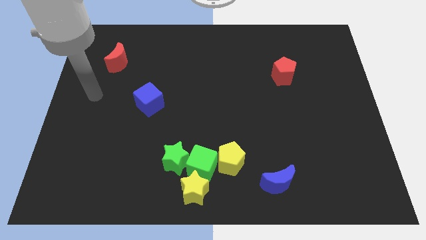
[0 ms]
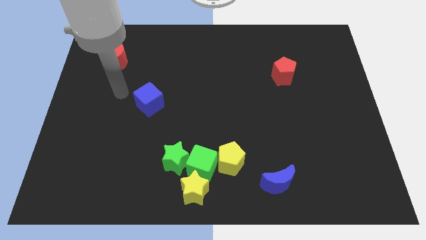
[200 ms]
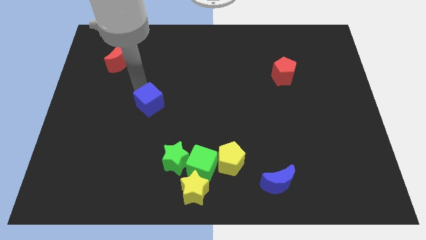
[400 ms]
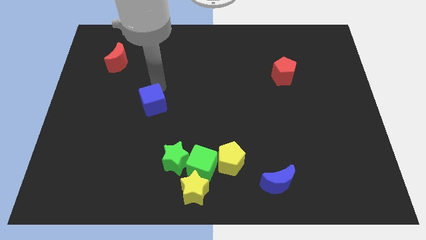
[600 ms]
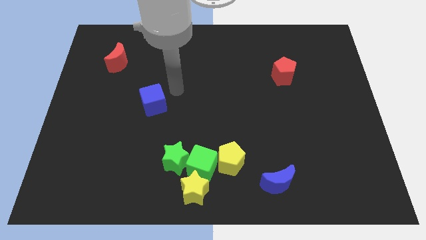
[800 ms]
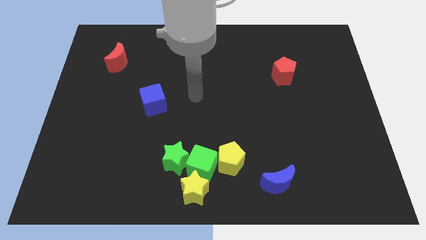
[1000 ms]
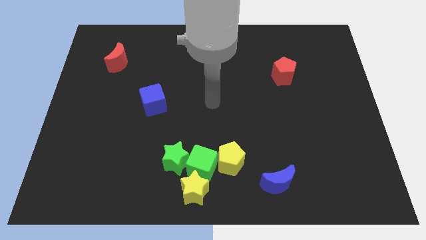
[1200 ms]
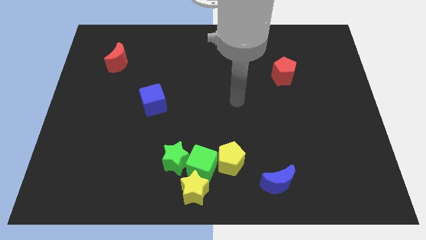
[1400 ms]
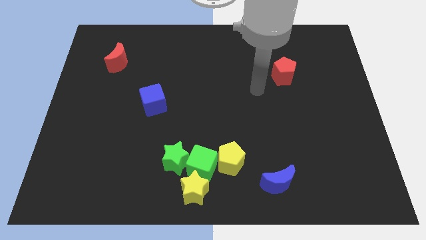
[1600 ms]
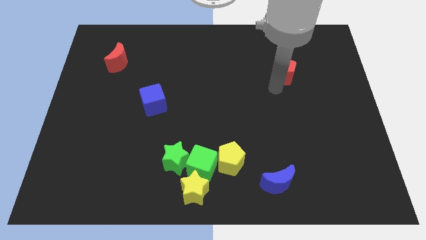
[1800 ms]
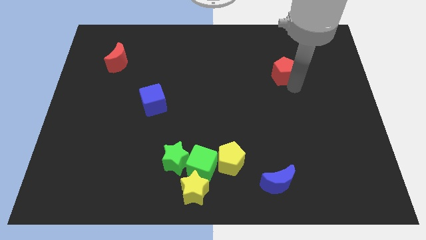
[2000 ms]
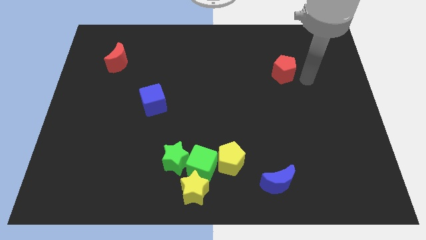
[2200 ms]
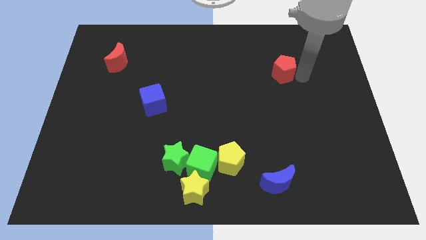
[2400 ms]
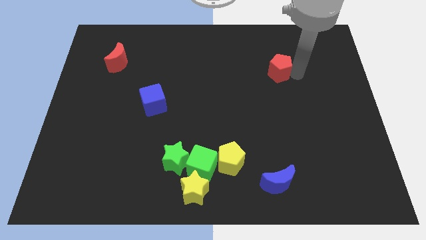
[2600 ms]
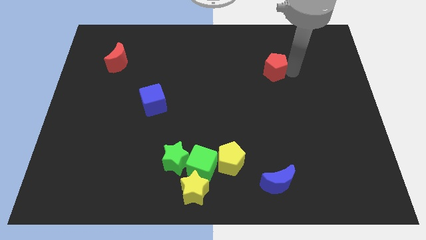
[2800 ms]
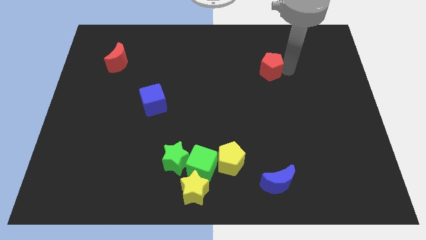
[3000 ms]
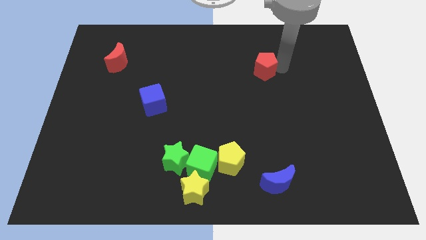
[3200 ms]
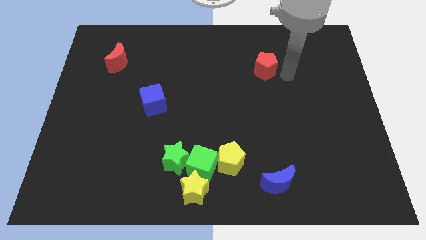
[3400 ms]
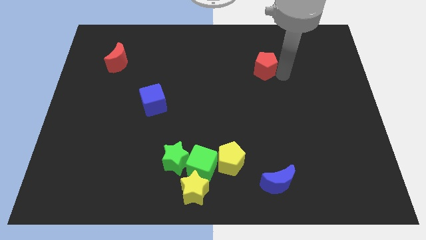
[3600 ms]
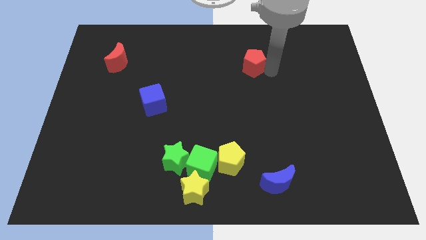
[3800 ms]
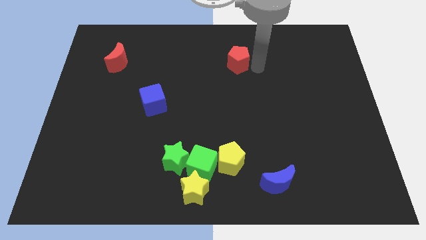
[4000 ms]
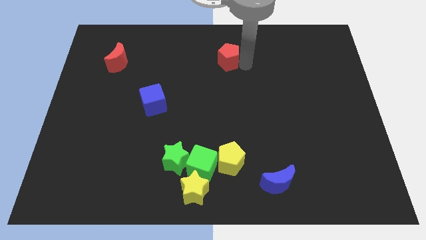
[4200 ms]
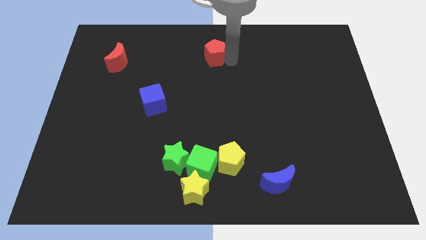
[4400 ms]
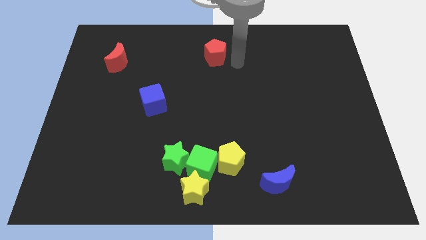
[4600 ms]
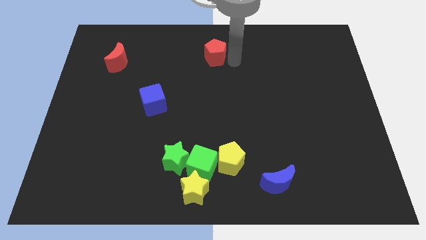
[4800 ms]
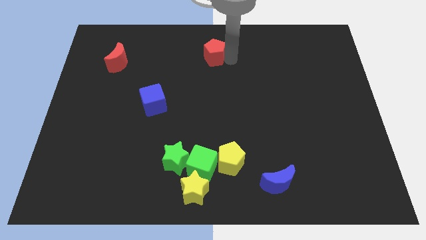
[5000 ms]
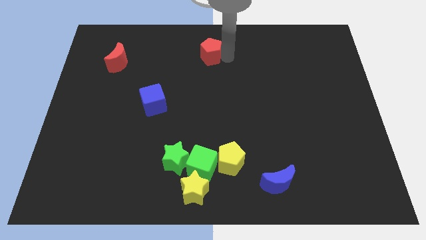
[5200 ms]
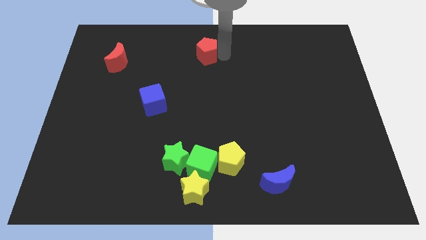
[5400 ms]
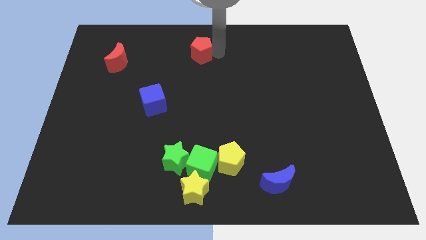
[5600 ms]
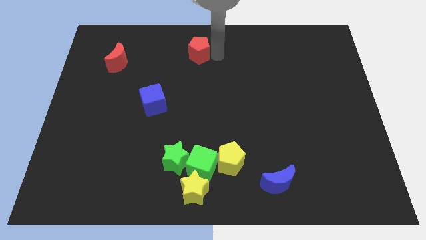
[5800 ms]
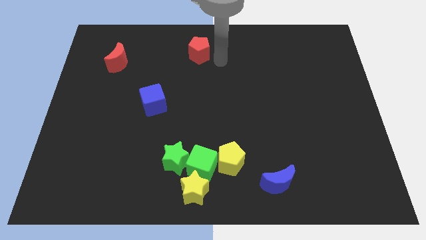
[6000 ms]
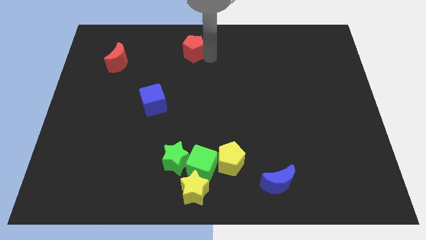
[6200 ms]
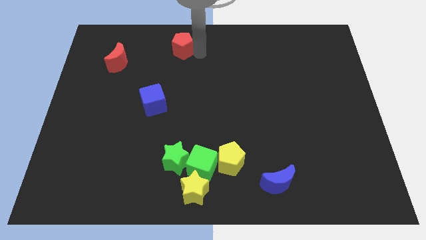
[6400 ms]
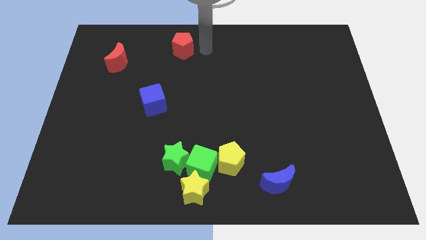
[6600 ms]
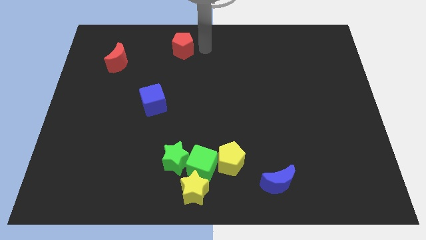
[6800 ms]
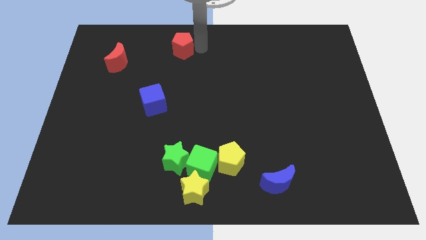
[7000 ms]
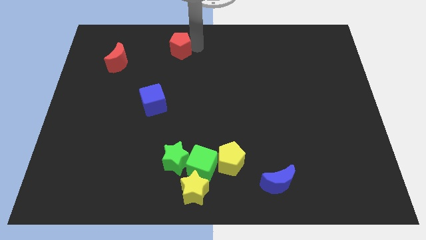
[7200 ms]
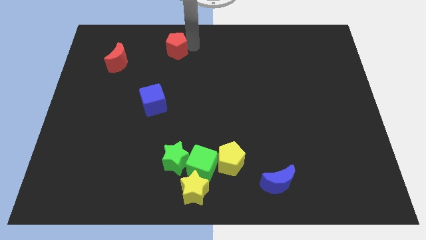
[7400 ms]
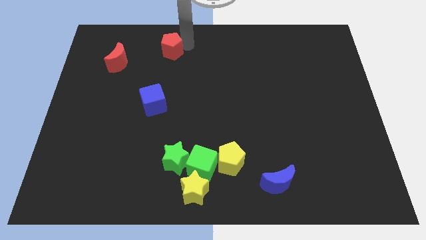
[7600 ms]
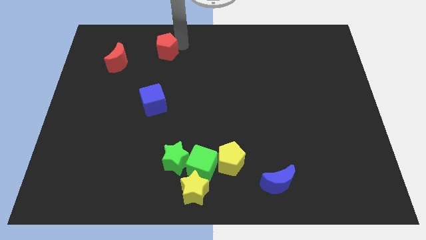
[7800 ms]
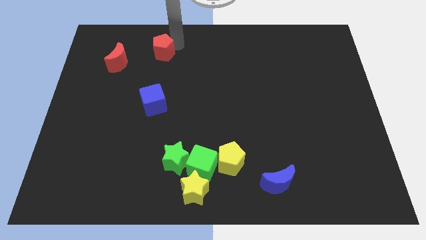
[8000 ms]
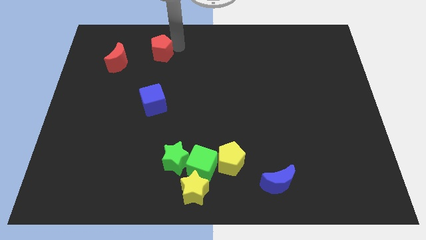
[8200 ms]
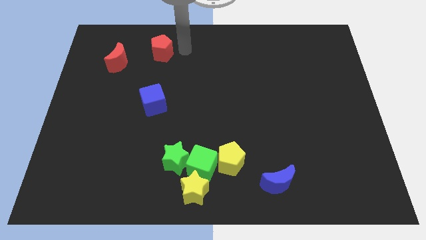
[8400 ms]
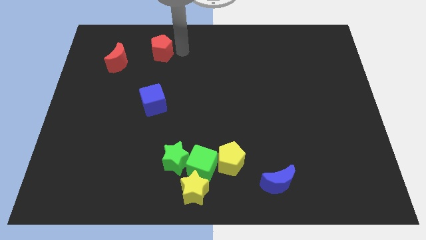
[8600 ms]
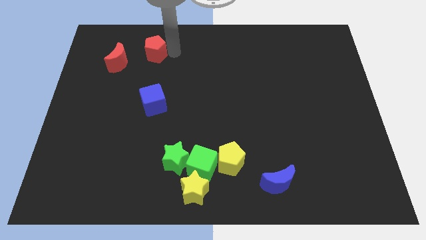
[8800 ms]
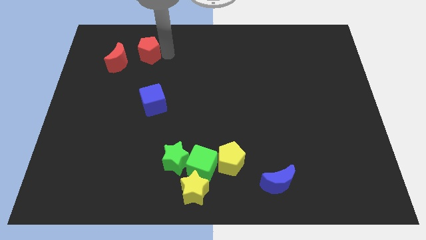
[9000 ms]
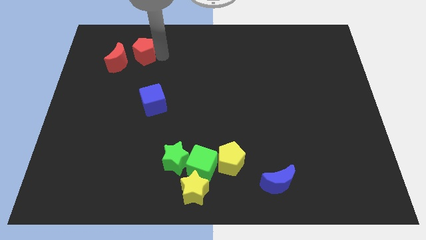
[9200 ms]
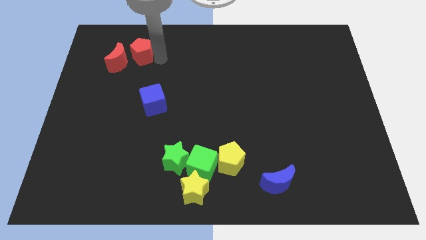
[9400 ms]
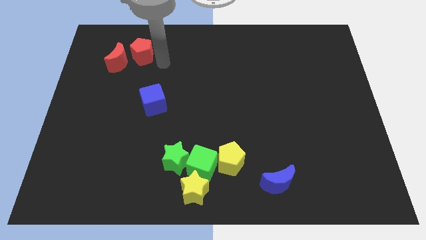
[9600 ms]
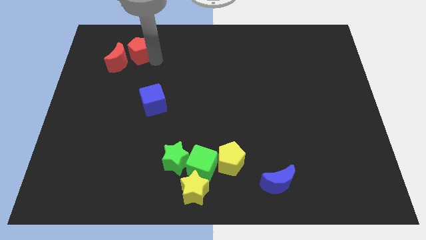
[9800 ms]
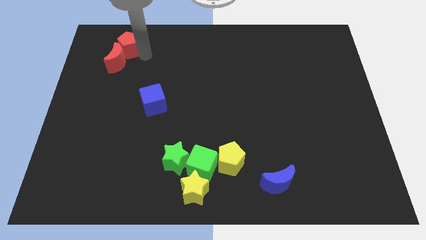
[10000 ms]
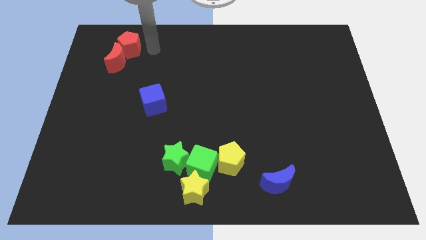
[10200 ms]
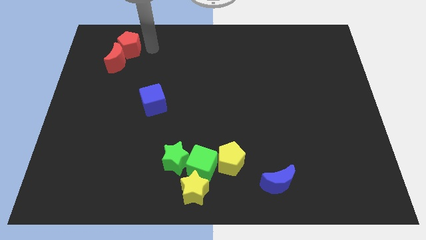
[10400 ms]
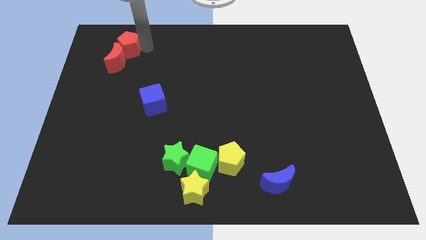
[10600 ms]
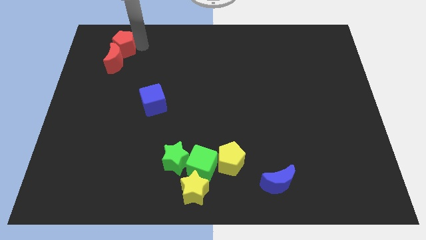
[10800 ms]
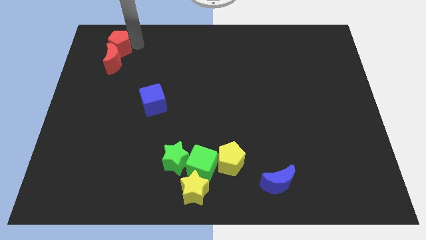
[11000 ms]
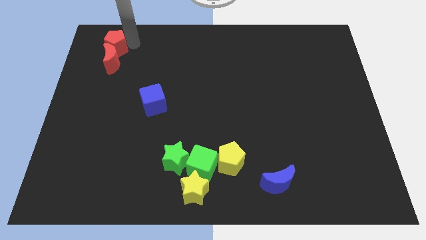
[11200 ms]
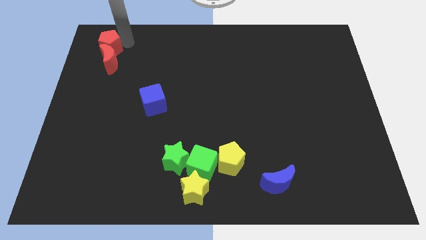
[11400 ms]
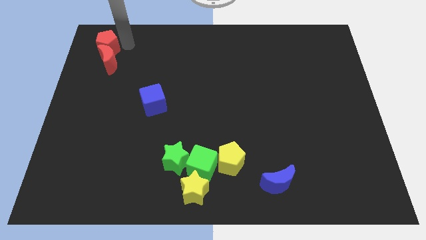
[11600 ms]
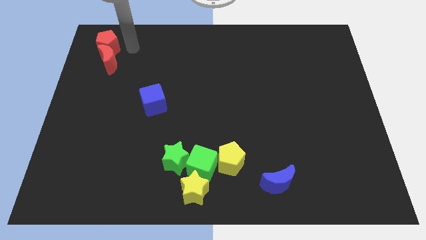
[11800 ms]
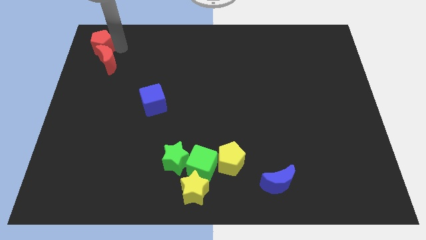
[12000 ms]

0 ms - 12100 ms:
move the red pentagon to the top left

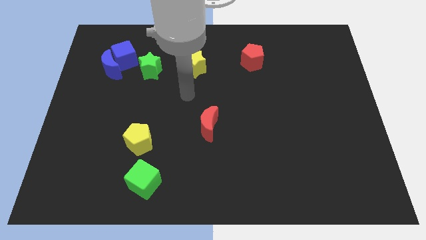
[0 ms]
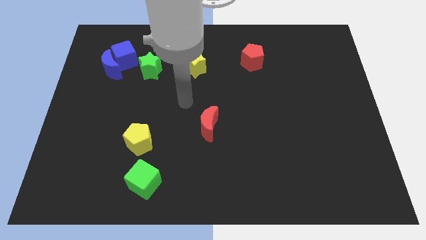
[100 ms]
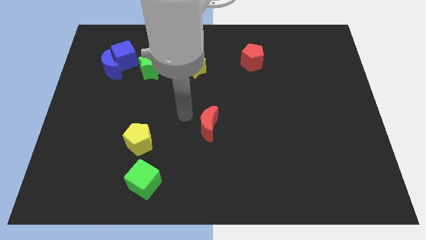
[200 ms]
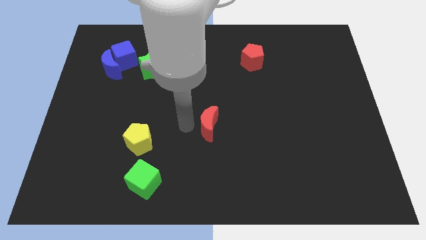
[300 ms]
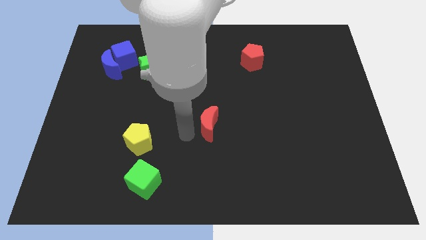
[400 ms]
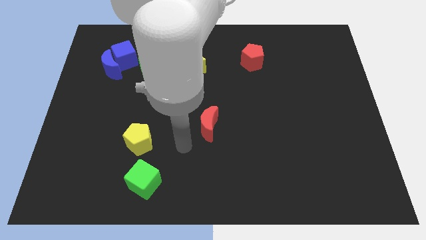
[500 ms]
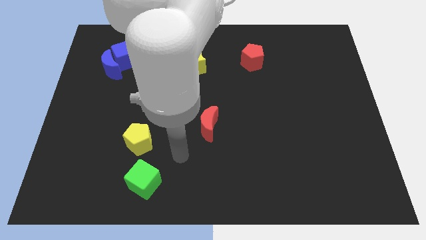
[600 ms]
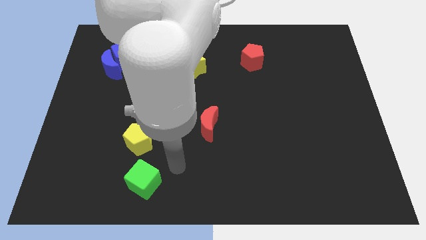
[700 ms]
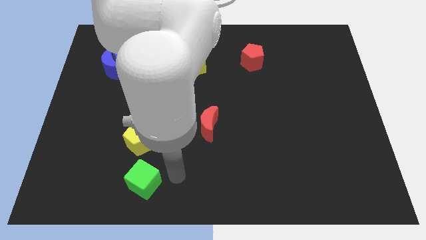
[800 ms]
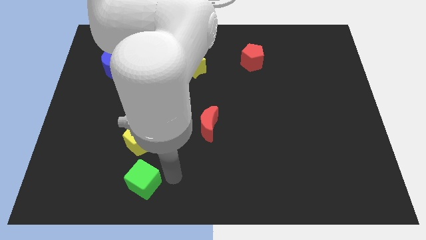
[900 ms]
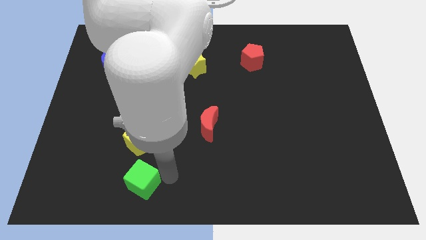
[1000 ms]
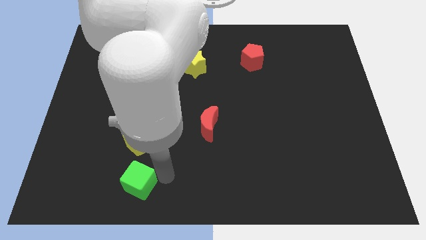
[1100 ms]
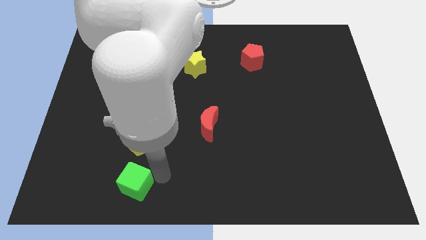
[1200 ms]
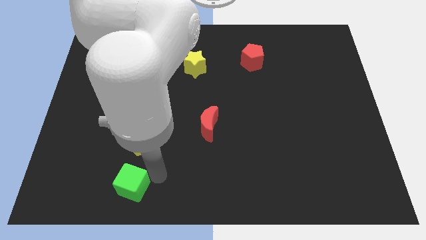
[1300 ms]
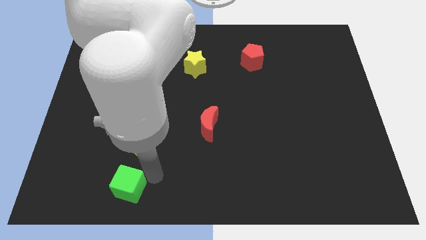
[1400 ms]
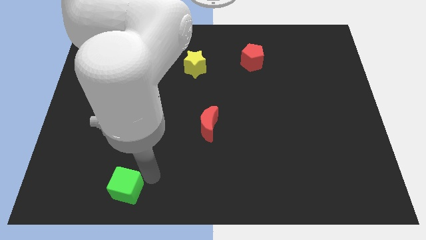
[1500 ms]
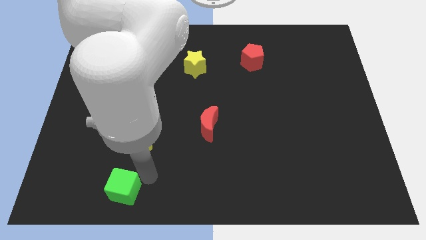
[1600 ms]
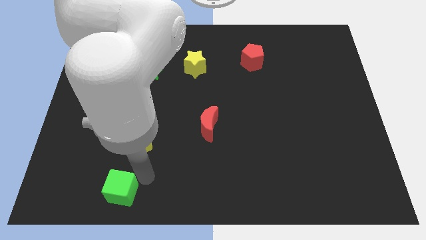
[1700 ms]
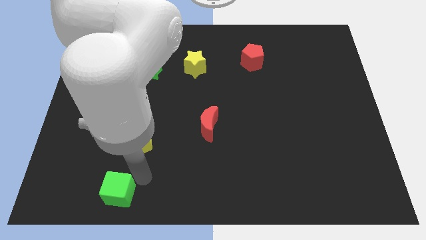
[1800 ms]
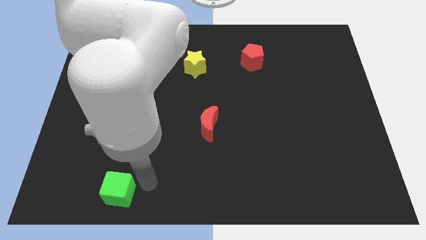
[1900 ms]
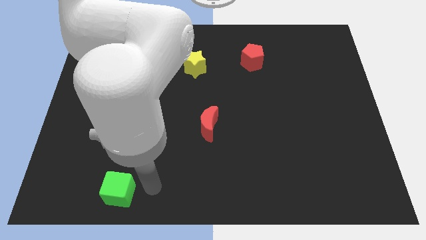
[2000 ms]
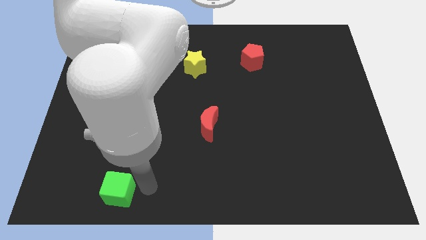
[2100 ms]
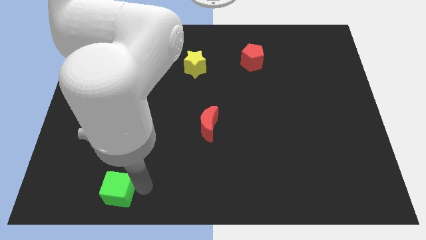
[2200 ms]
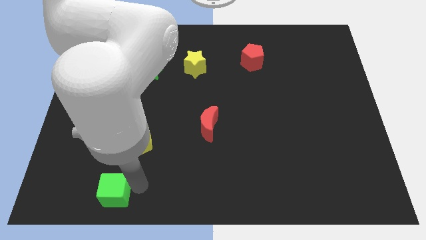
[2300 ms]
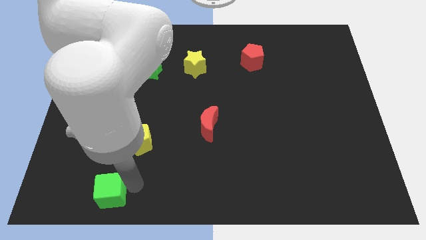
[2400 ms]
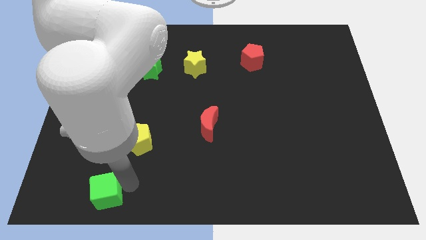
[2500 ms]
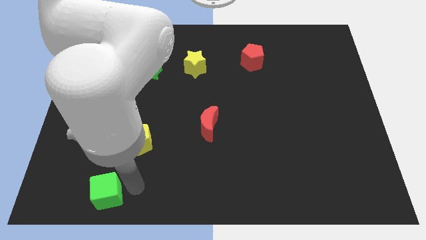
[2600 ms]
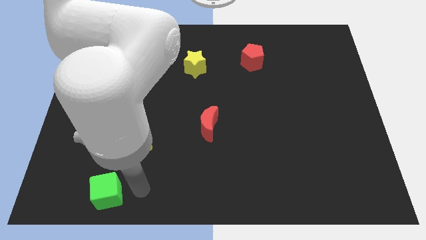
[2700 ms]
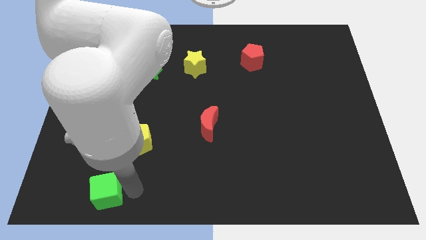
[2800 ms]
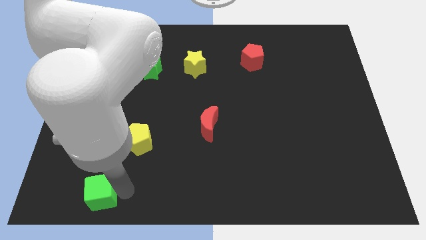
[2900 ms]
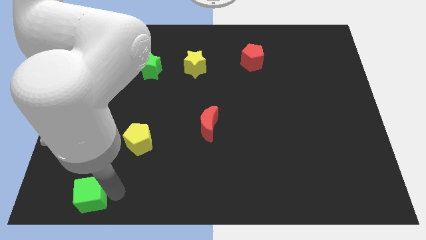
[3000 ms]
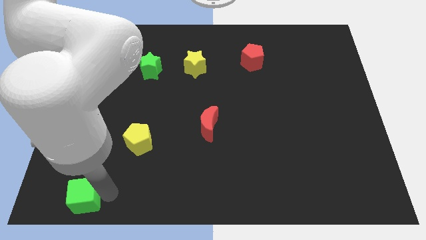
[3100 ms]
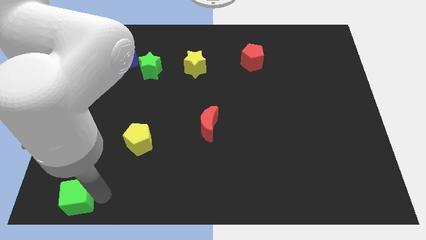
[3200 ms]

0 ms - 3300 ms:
move the green cube to the lower left corner
